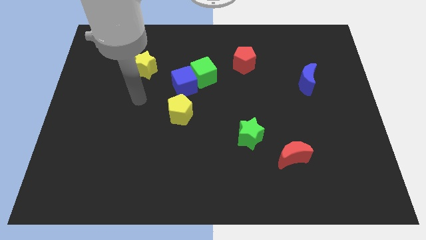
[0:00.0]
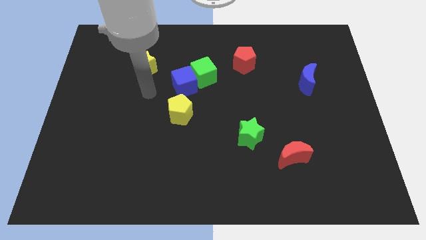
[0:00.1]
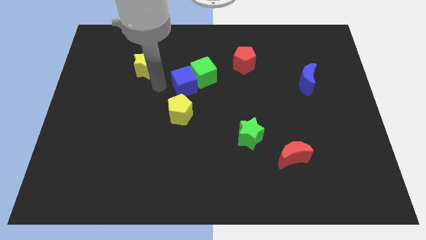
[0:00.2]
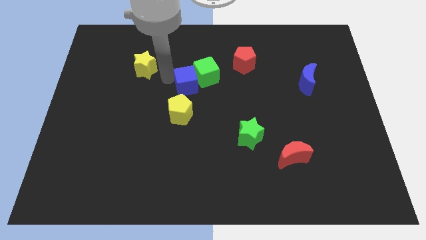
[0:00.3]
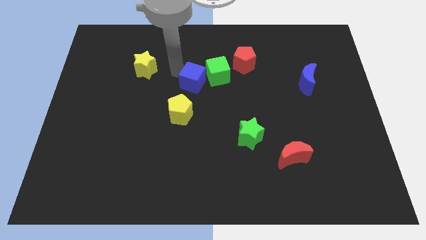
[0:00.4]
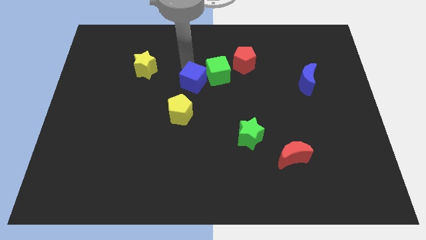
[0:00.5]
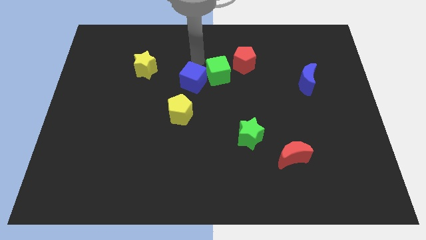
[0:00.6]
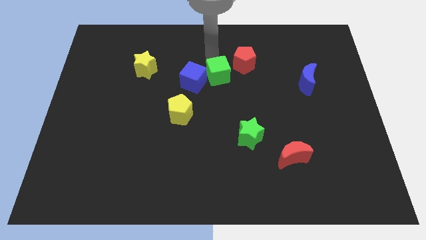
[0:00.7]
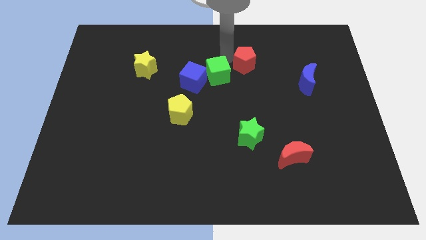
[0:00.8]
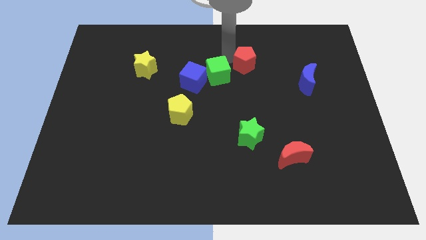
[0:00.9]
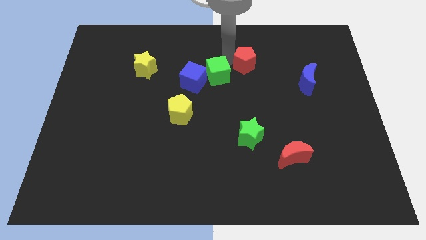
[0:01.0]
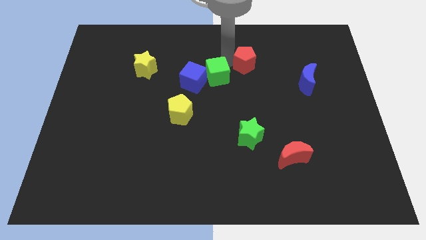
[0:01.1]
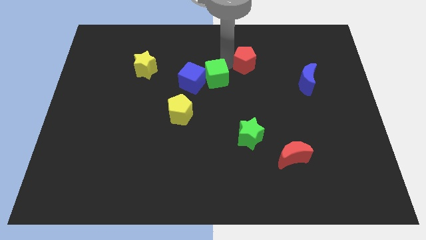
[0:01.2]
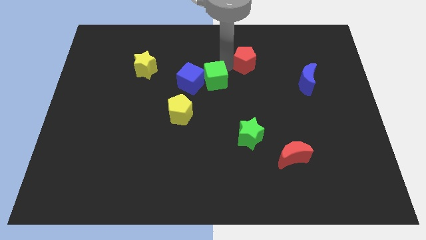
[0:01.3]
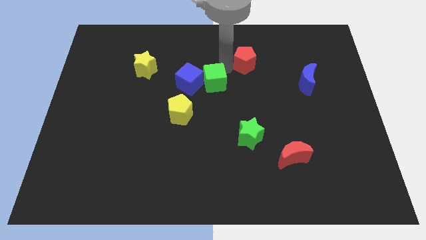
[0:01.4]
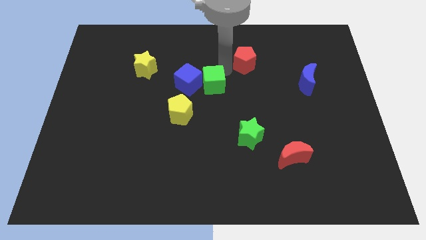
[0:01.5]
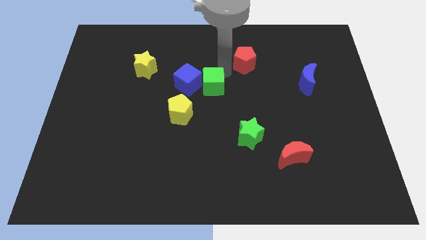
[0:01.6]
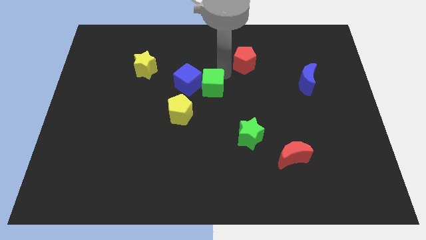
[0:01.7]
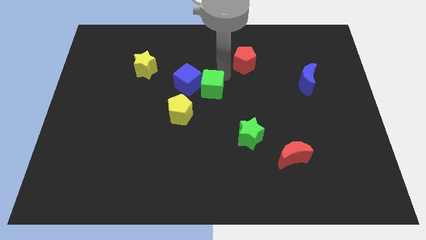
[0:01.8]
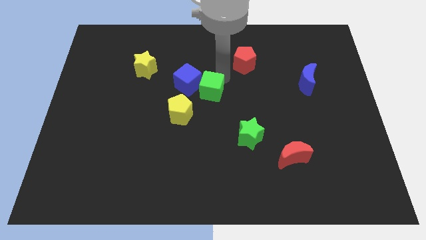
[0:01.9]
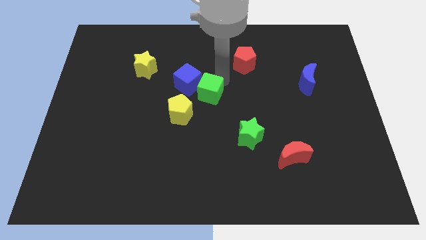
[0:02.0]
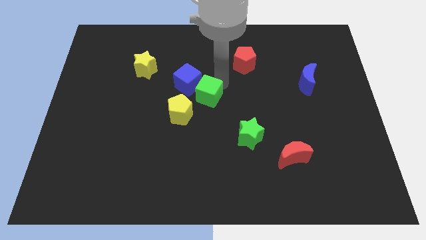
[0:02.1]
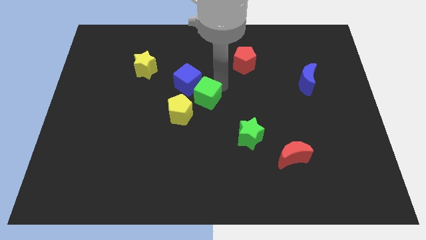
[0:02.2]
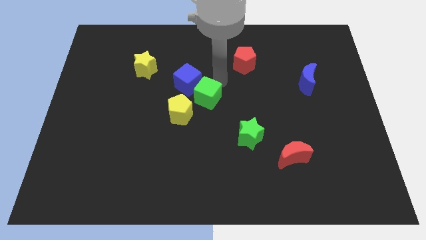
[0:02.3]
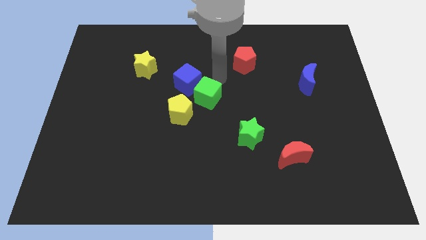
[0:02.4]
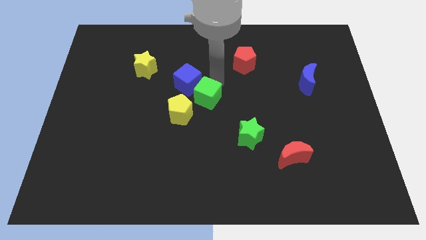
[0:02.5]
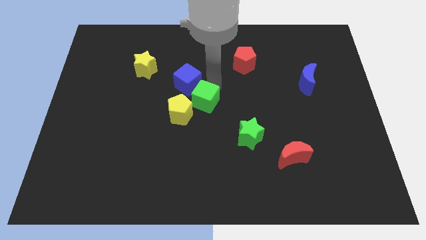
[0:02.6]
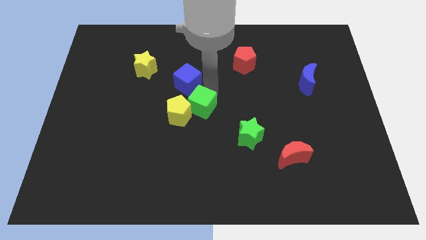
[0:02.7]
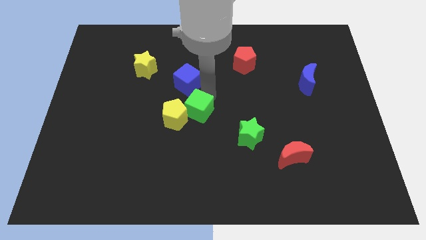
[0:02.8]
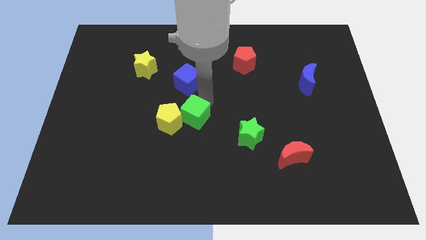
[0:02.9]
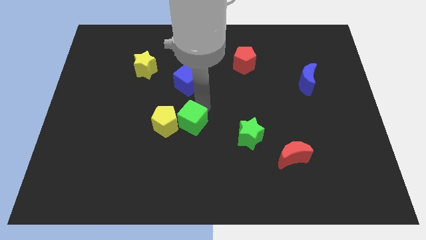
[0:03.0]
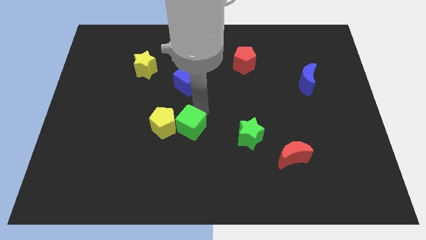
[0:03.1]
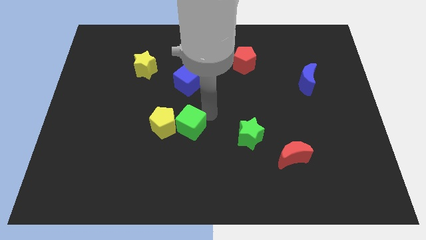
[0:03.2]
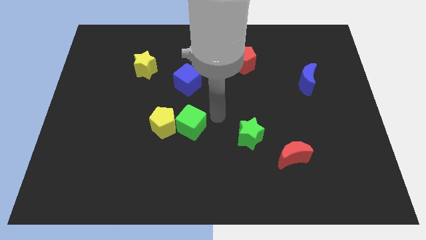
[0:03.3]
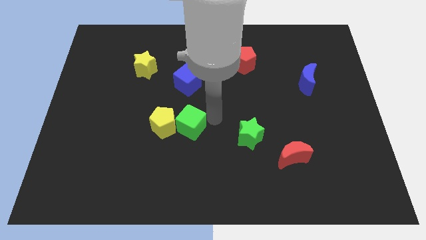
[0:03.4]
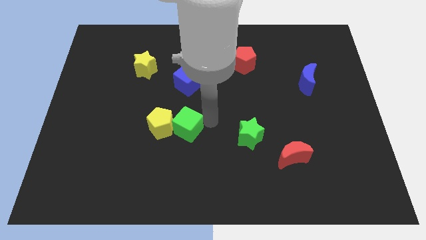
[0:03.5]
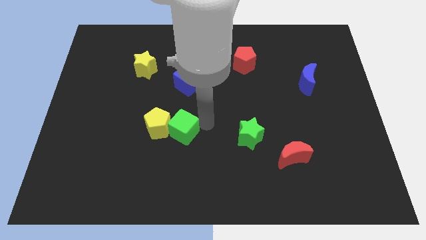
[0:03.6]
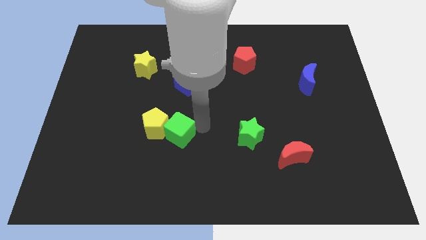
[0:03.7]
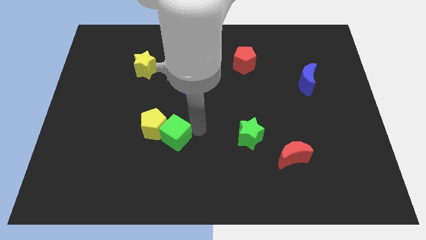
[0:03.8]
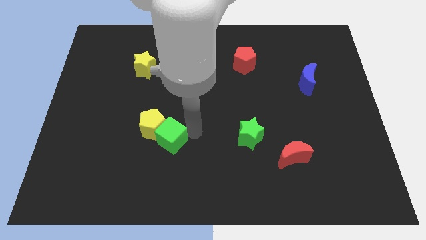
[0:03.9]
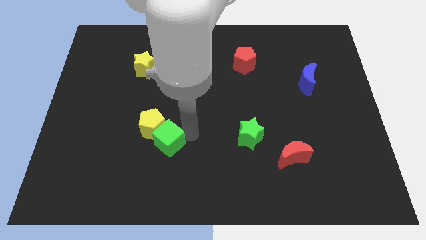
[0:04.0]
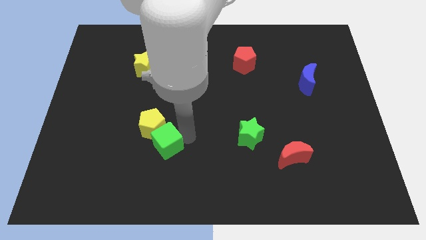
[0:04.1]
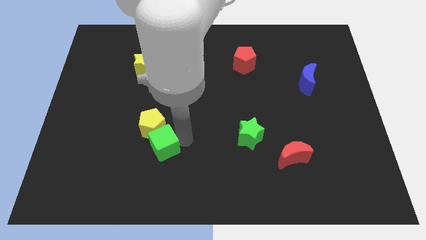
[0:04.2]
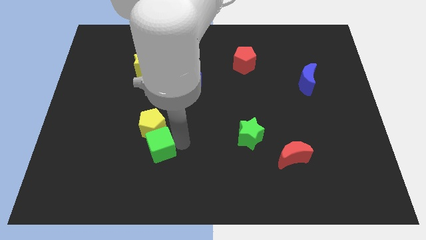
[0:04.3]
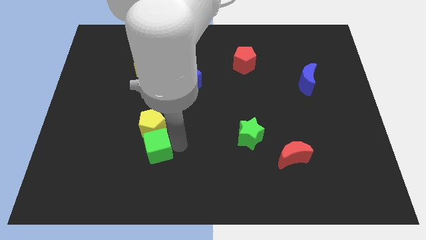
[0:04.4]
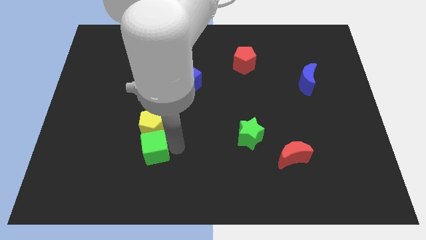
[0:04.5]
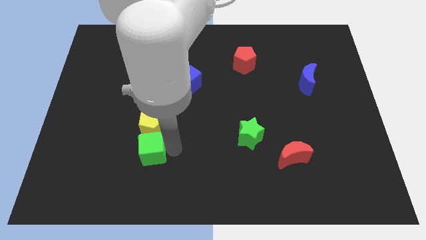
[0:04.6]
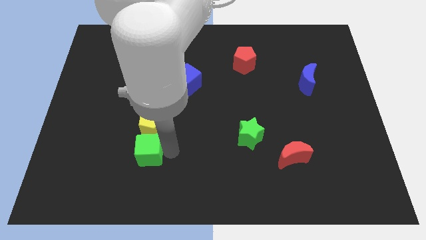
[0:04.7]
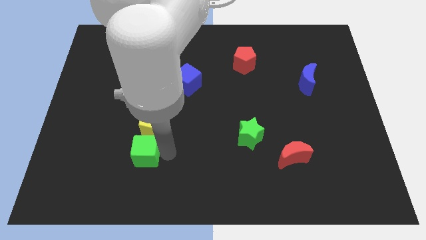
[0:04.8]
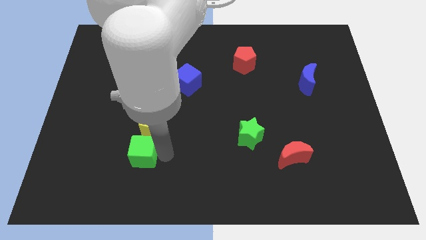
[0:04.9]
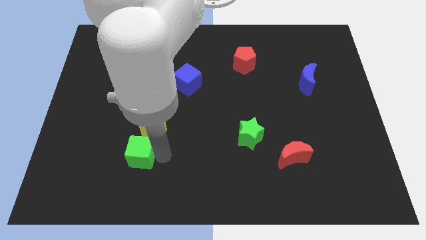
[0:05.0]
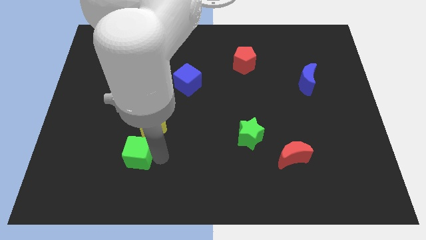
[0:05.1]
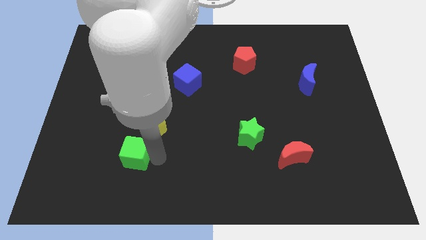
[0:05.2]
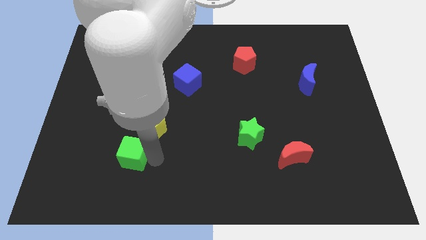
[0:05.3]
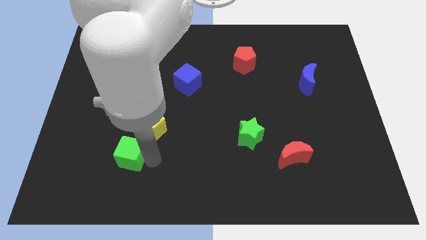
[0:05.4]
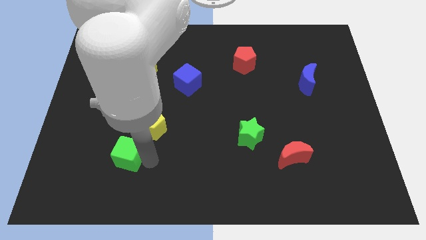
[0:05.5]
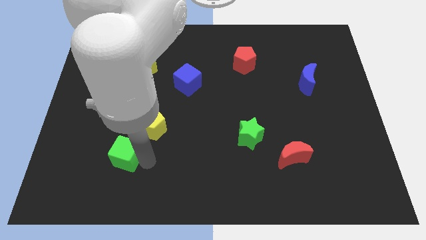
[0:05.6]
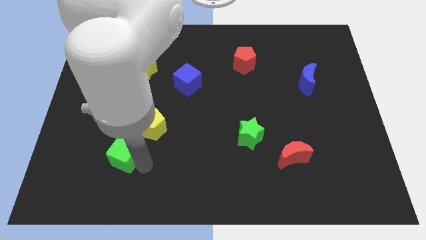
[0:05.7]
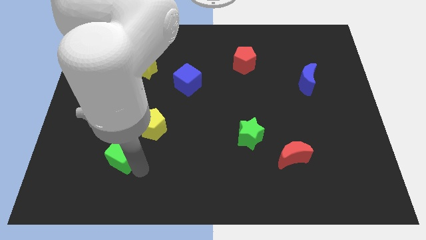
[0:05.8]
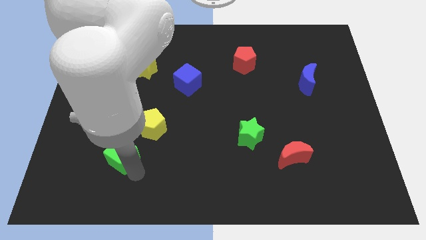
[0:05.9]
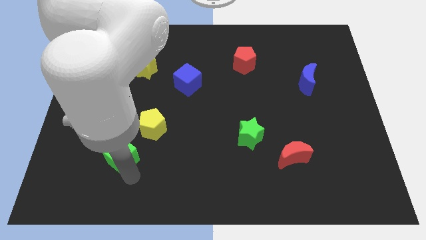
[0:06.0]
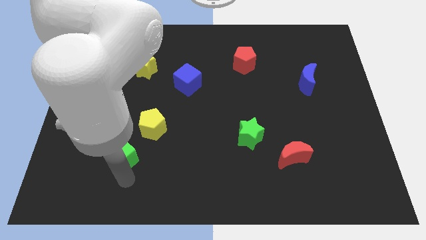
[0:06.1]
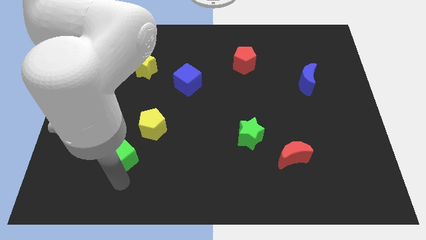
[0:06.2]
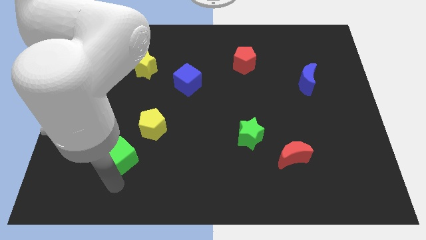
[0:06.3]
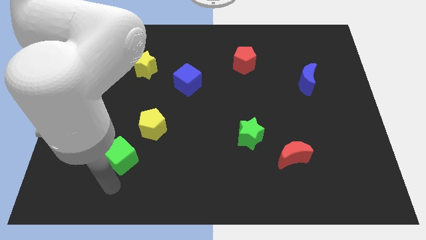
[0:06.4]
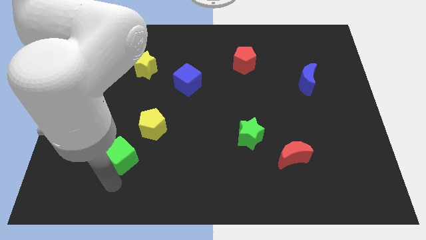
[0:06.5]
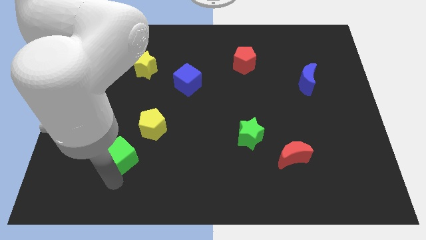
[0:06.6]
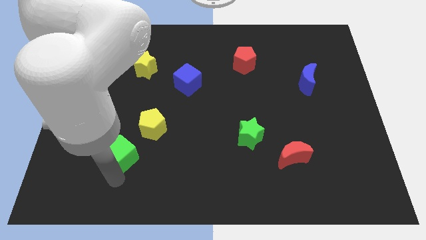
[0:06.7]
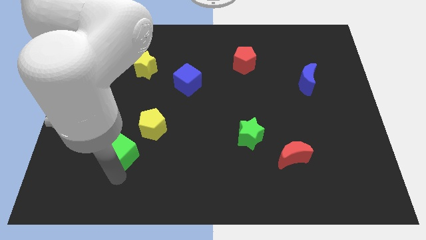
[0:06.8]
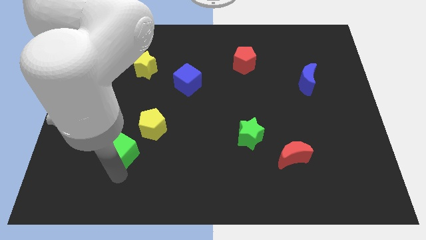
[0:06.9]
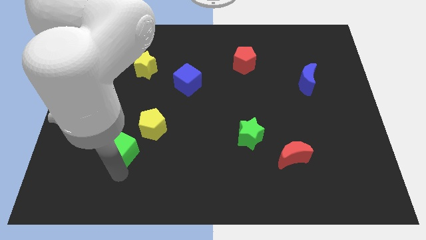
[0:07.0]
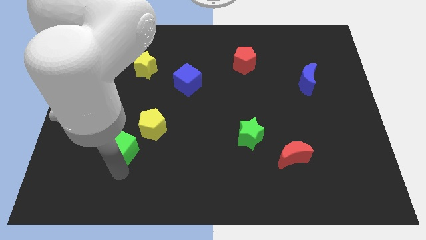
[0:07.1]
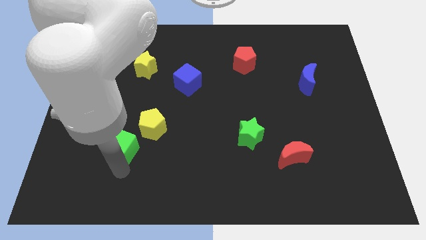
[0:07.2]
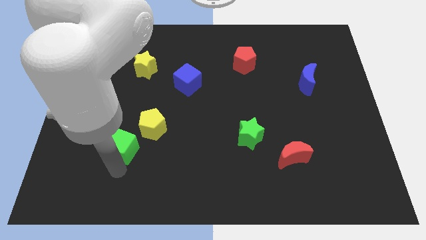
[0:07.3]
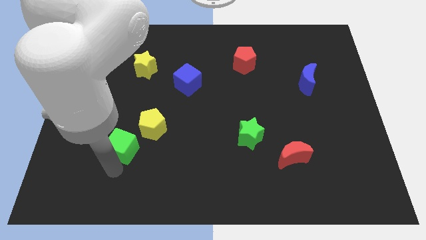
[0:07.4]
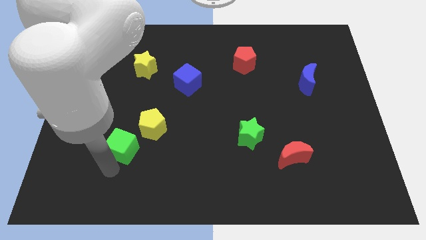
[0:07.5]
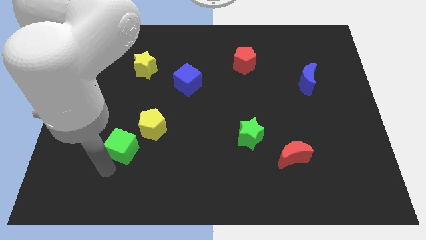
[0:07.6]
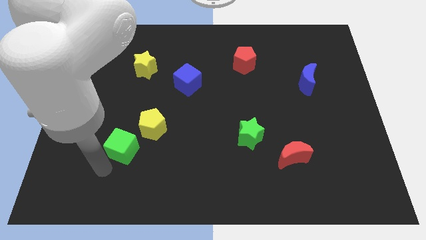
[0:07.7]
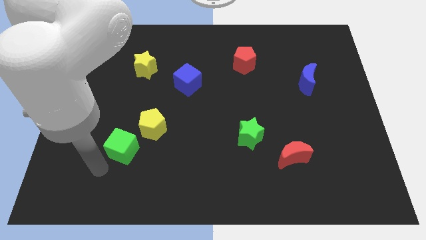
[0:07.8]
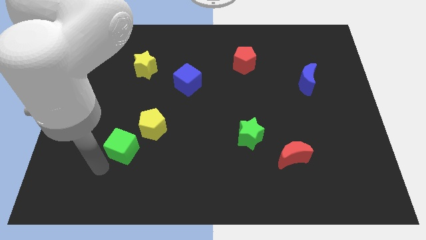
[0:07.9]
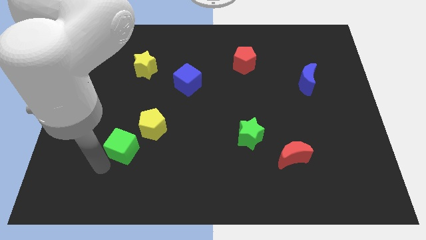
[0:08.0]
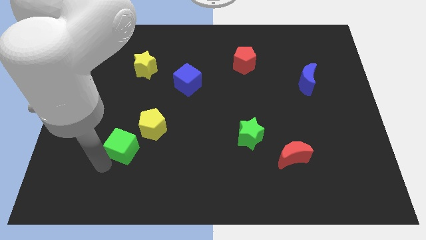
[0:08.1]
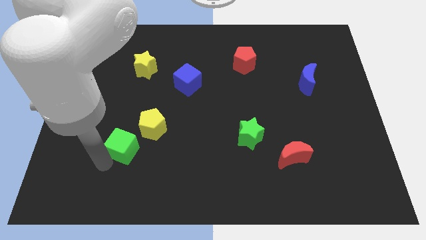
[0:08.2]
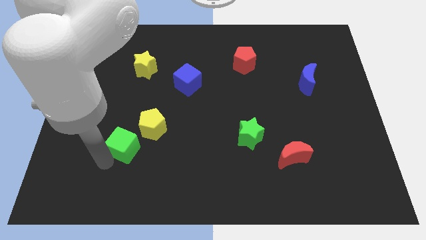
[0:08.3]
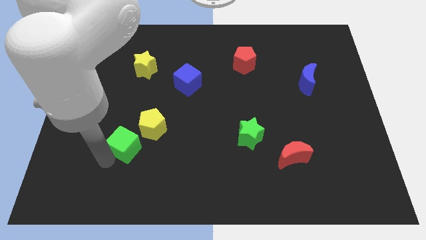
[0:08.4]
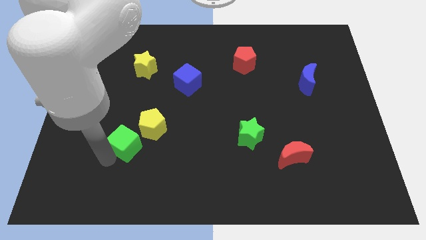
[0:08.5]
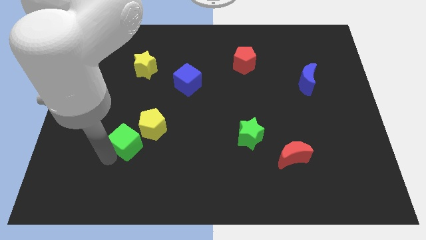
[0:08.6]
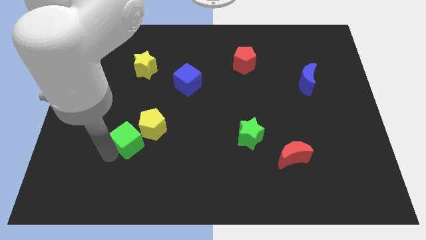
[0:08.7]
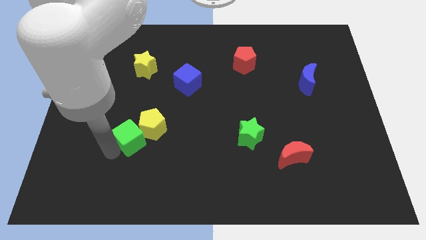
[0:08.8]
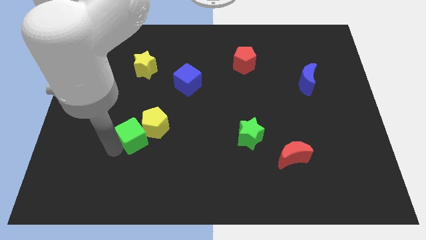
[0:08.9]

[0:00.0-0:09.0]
slide the green cube to the bottom left of the yellow pentagon
